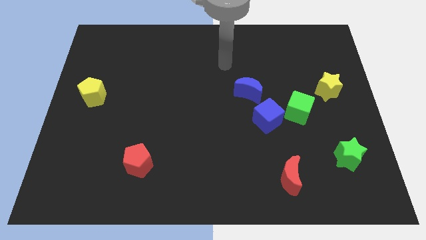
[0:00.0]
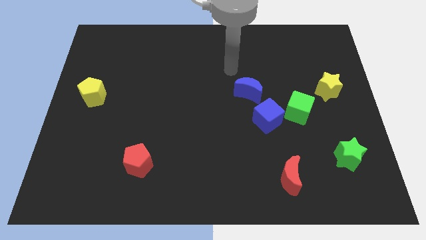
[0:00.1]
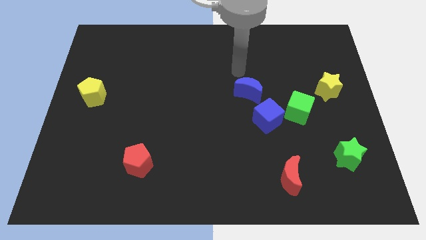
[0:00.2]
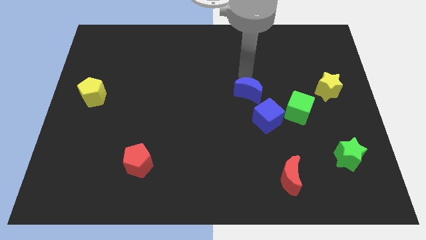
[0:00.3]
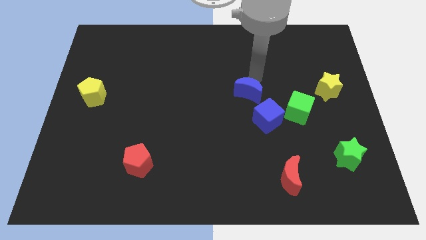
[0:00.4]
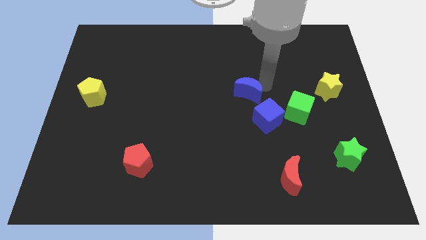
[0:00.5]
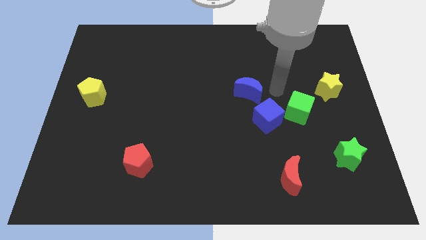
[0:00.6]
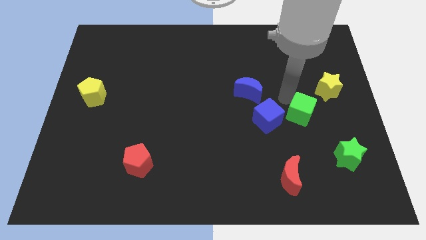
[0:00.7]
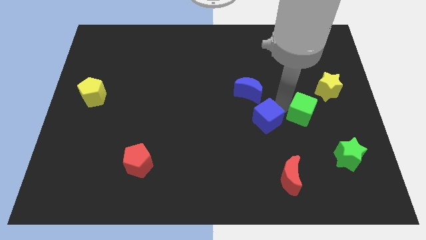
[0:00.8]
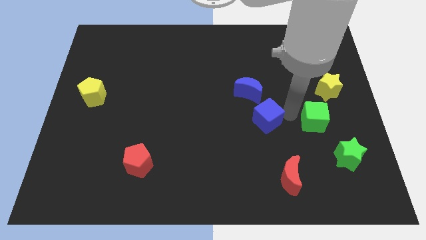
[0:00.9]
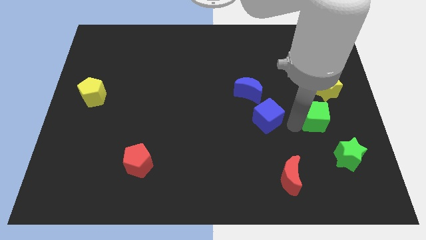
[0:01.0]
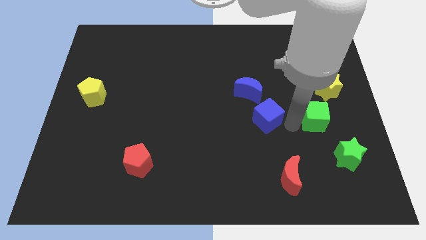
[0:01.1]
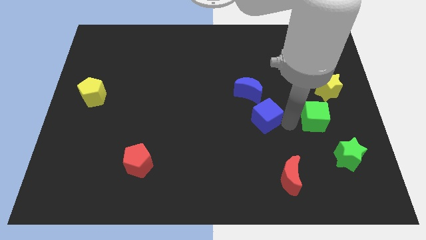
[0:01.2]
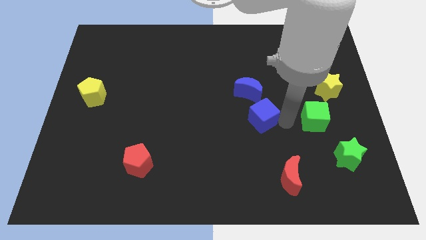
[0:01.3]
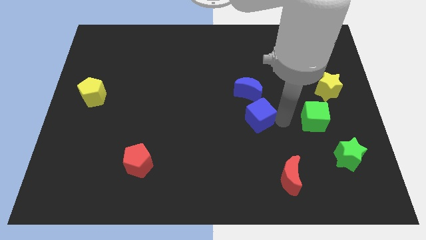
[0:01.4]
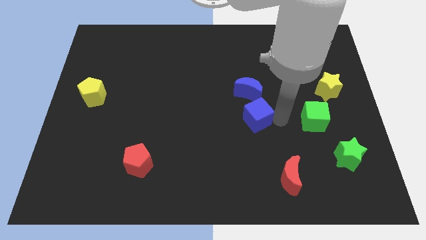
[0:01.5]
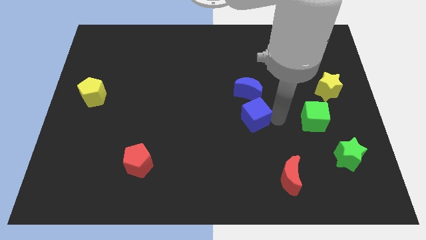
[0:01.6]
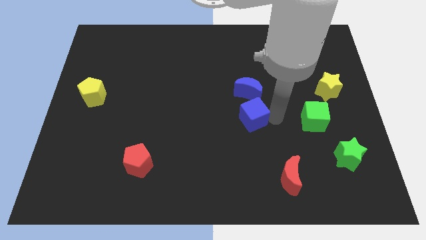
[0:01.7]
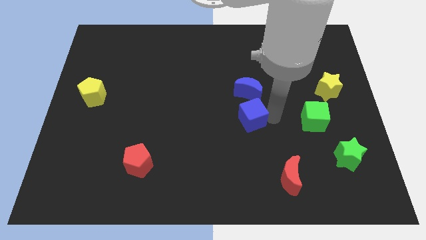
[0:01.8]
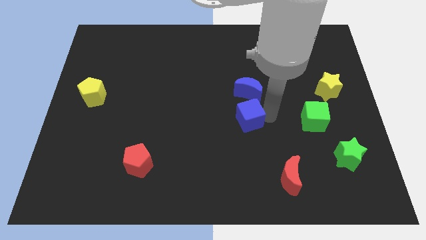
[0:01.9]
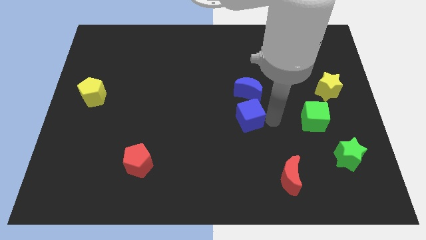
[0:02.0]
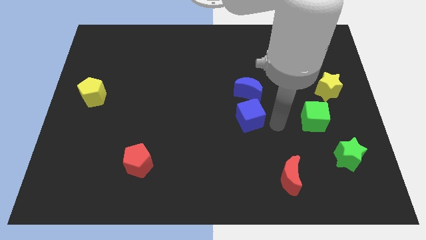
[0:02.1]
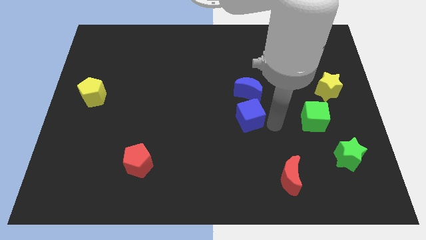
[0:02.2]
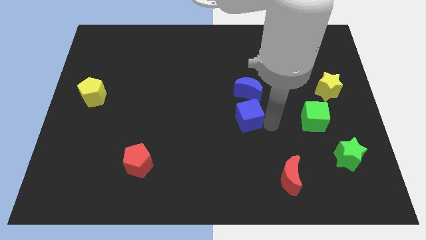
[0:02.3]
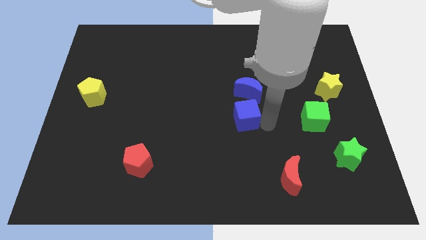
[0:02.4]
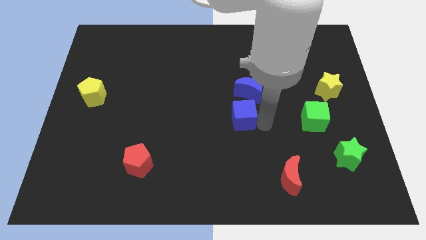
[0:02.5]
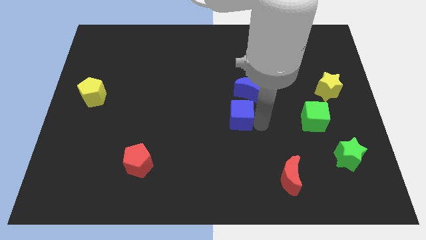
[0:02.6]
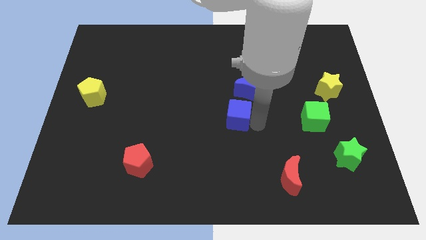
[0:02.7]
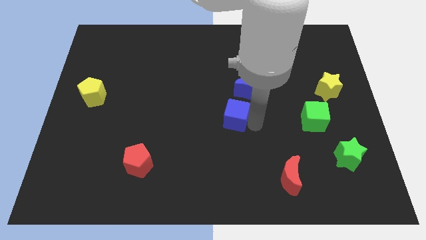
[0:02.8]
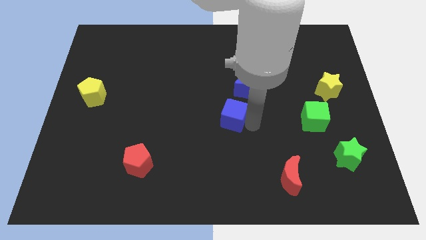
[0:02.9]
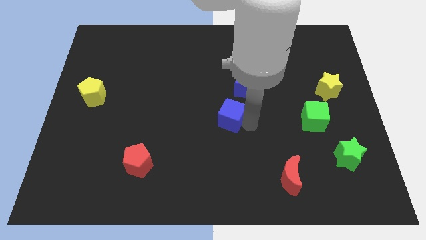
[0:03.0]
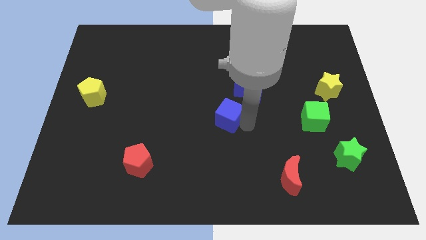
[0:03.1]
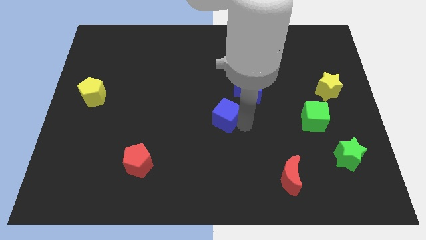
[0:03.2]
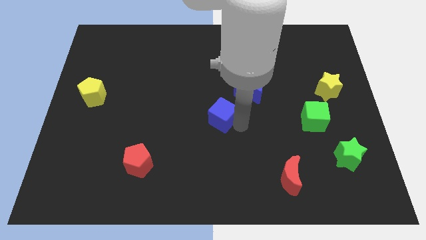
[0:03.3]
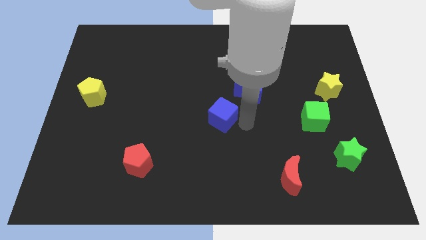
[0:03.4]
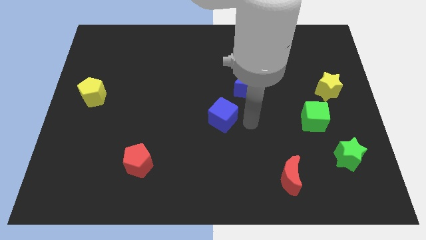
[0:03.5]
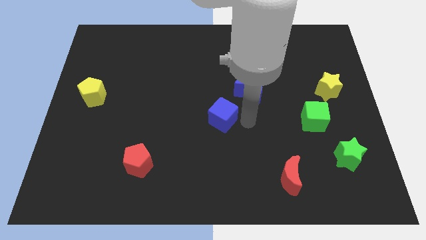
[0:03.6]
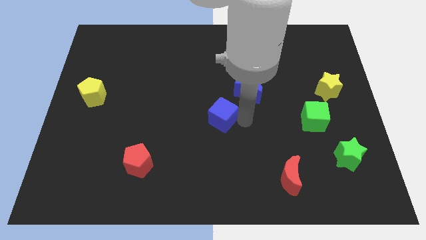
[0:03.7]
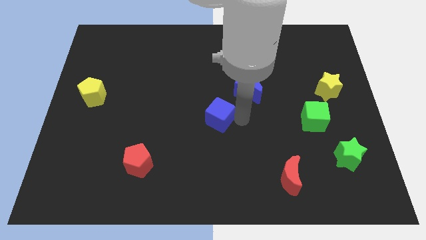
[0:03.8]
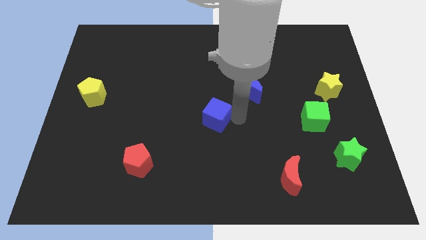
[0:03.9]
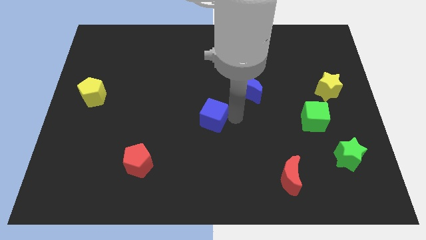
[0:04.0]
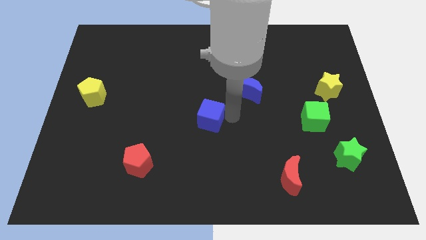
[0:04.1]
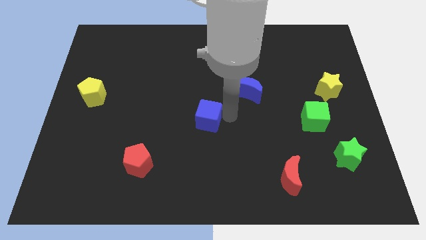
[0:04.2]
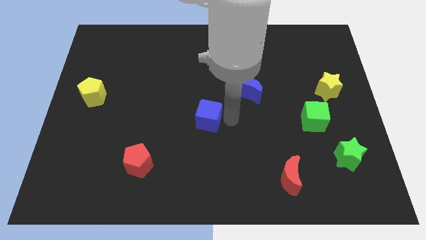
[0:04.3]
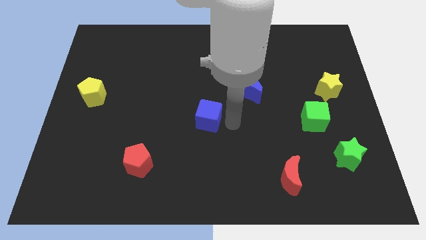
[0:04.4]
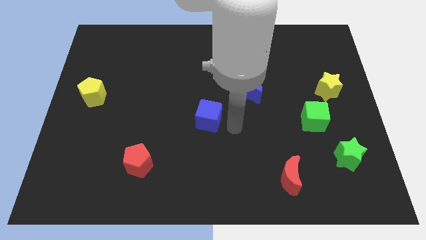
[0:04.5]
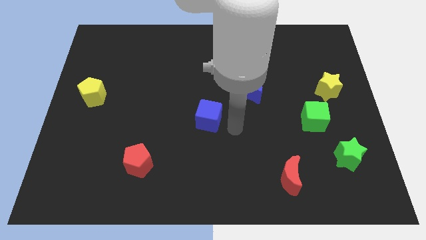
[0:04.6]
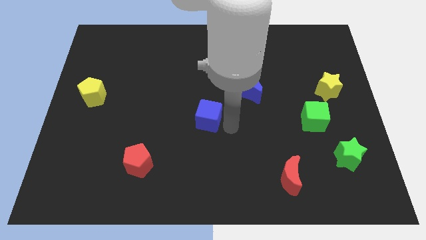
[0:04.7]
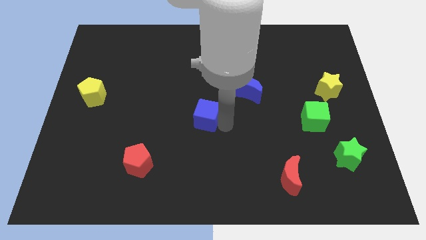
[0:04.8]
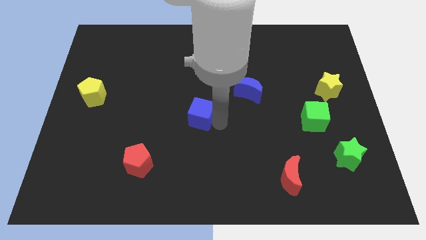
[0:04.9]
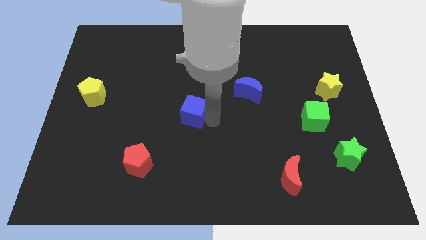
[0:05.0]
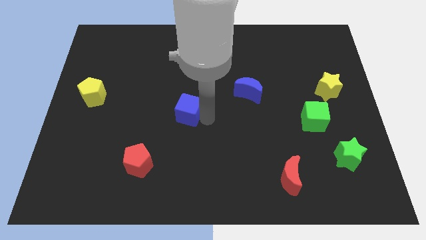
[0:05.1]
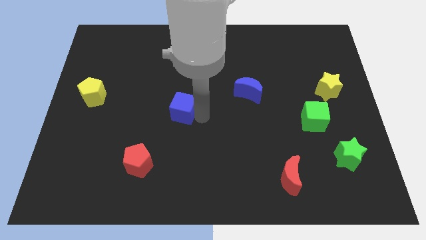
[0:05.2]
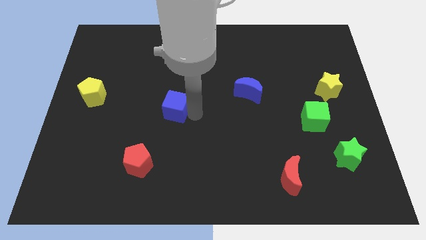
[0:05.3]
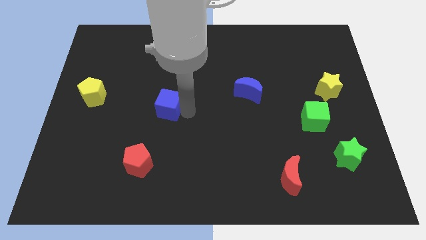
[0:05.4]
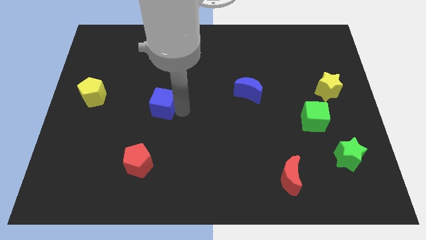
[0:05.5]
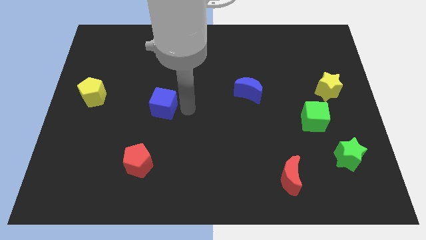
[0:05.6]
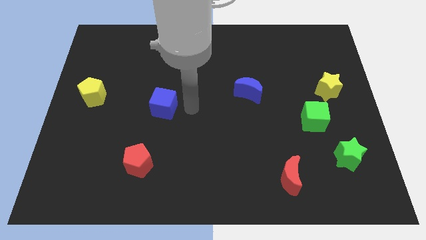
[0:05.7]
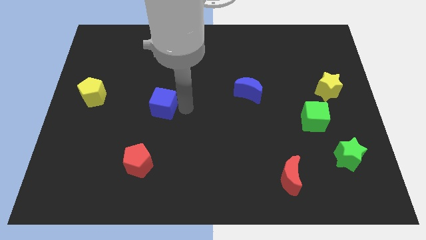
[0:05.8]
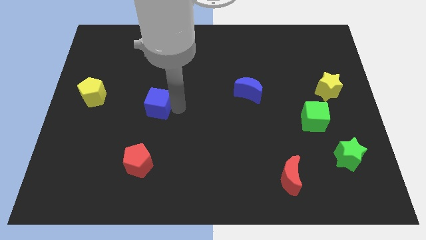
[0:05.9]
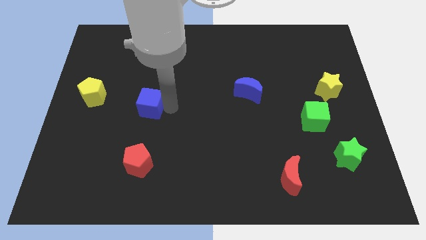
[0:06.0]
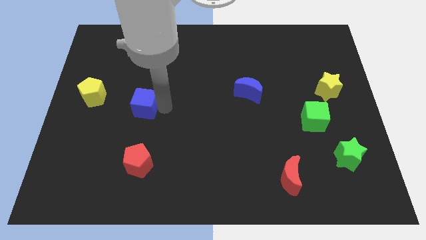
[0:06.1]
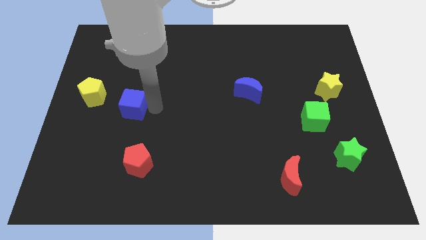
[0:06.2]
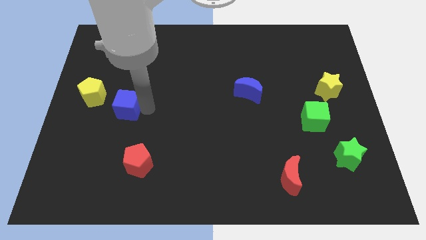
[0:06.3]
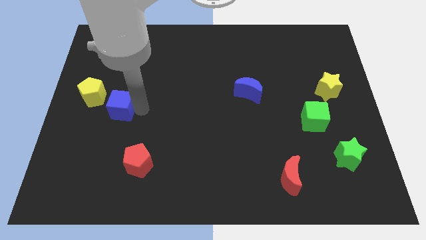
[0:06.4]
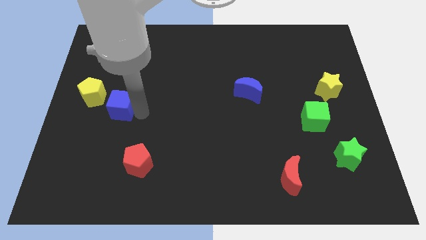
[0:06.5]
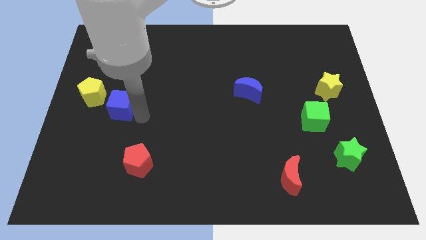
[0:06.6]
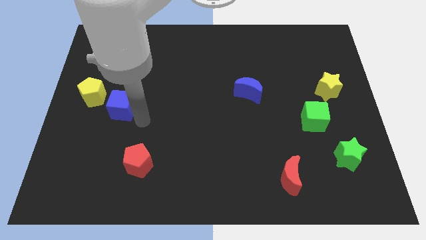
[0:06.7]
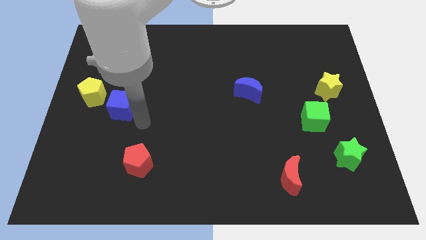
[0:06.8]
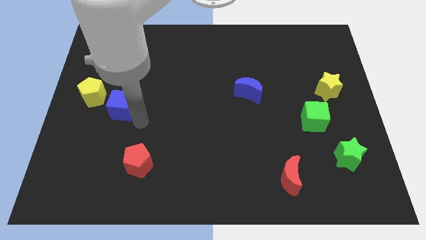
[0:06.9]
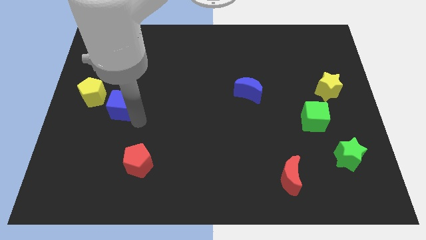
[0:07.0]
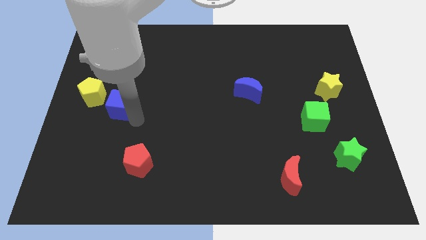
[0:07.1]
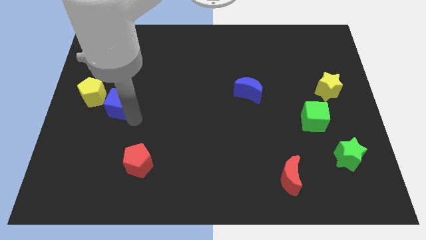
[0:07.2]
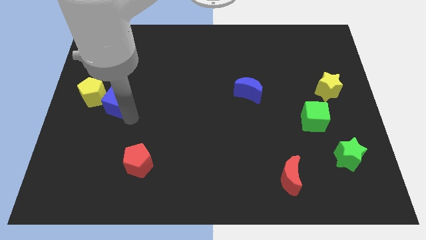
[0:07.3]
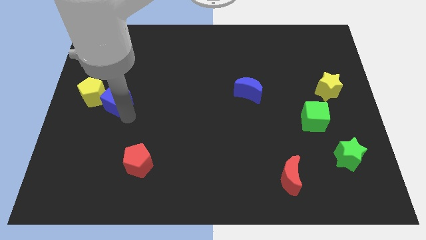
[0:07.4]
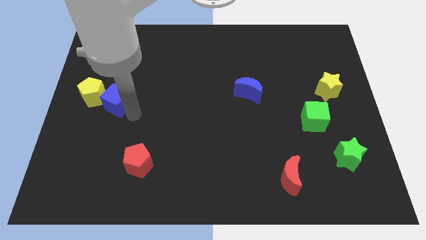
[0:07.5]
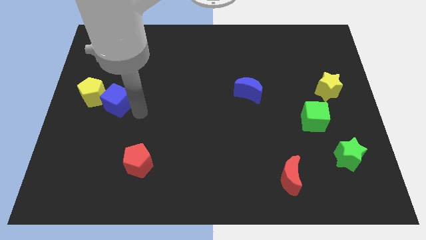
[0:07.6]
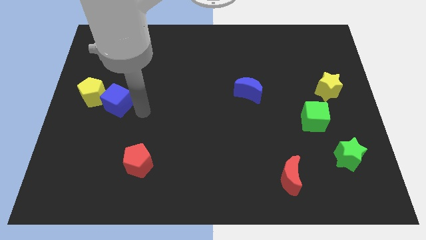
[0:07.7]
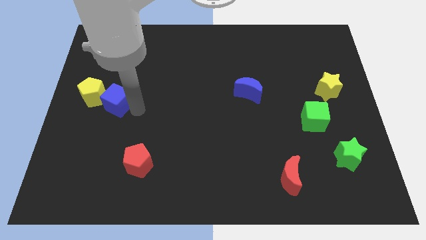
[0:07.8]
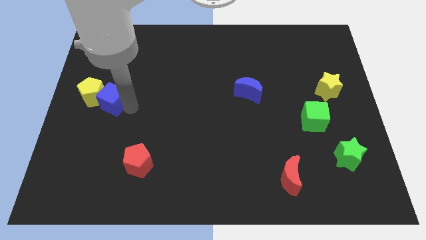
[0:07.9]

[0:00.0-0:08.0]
put the blue cube towards the yellow pentagon

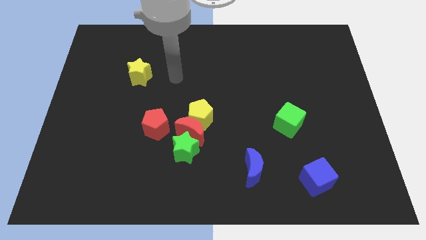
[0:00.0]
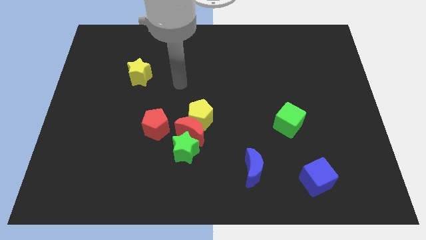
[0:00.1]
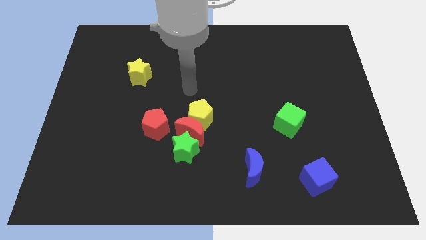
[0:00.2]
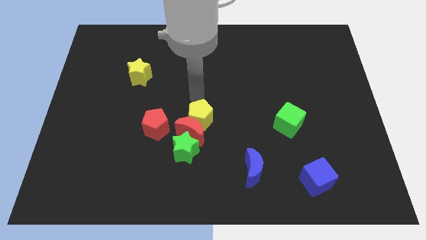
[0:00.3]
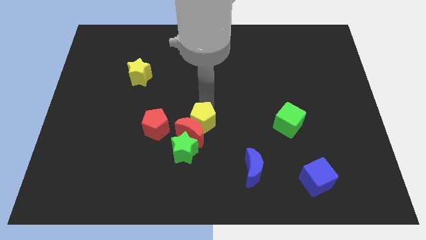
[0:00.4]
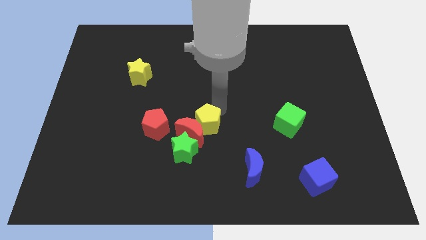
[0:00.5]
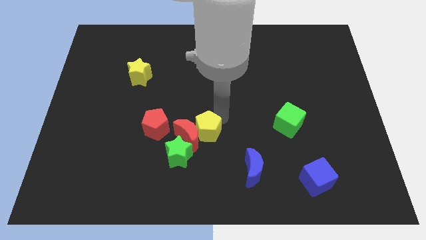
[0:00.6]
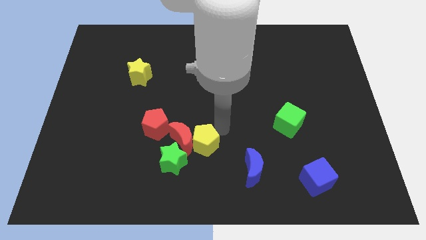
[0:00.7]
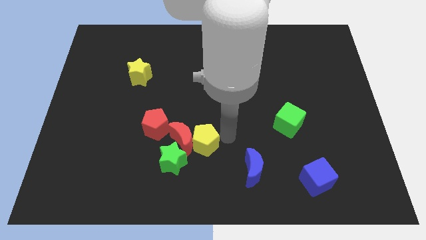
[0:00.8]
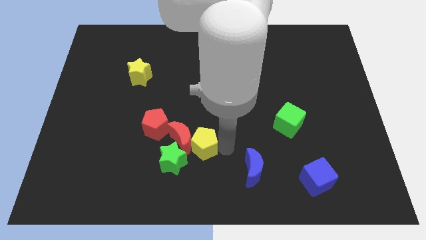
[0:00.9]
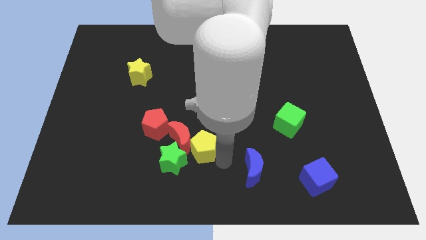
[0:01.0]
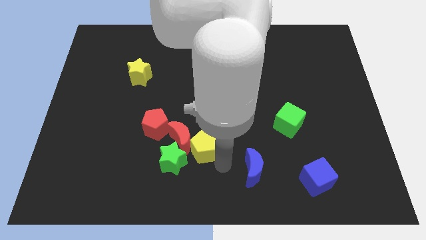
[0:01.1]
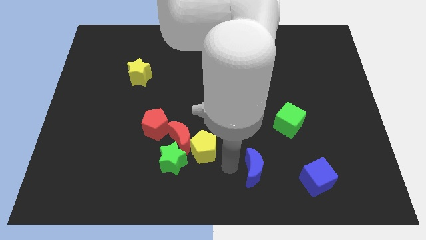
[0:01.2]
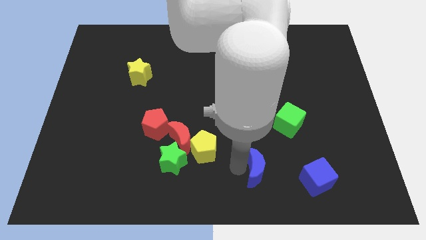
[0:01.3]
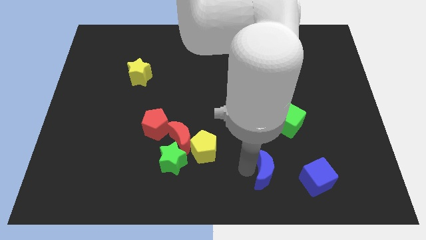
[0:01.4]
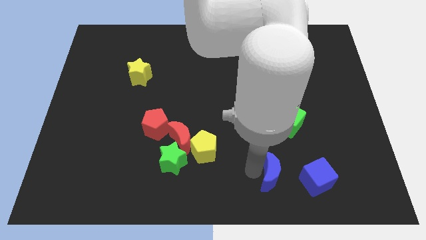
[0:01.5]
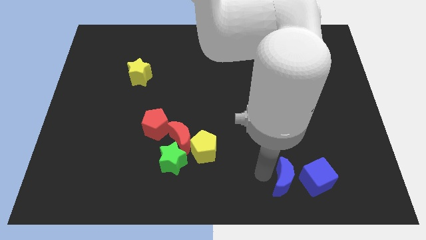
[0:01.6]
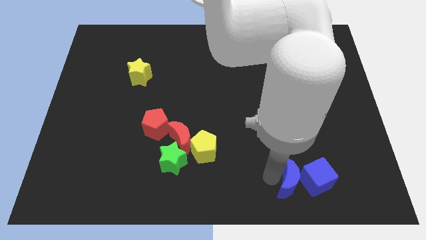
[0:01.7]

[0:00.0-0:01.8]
slide the blue moon towards the blue cube
